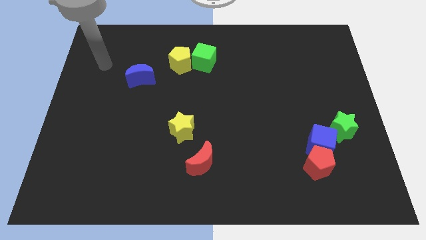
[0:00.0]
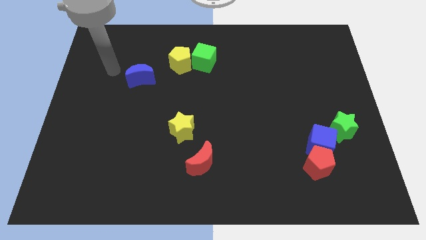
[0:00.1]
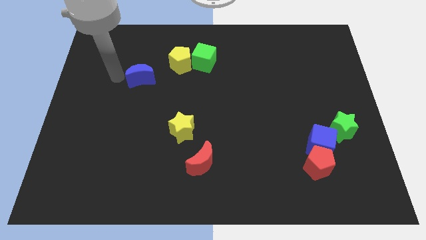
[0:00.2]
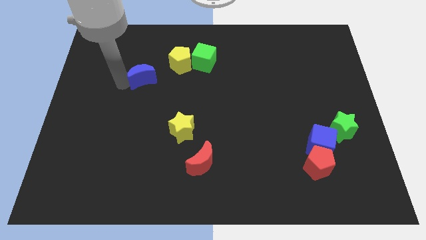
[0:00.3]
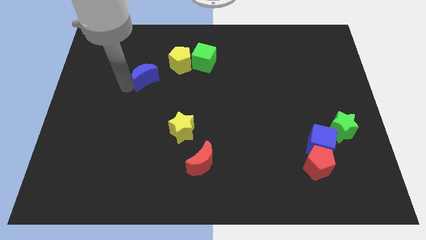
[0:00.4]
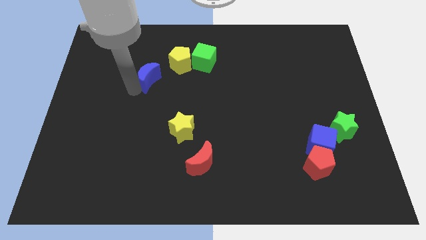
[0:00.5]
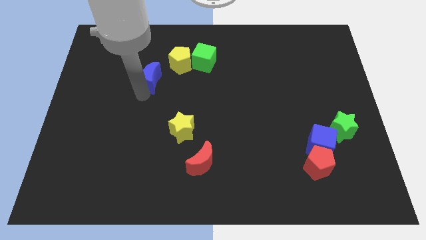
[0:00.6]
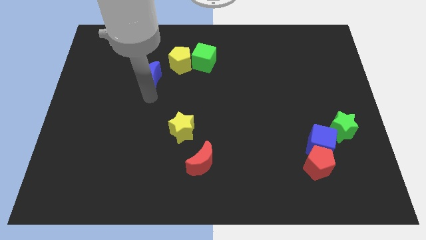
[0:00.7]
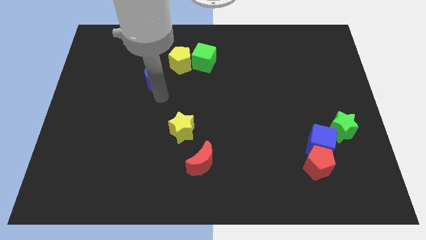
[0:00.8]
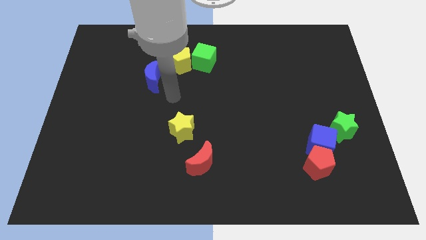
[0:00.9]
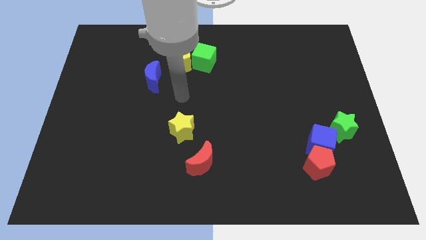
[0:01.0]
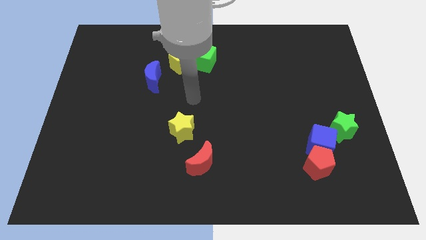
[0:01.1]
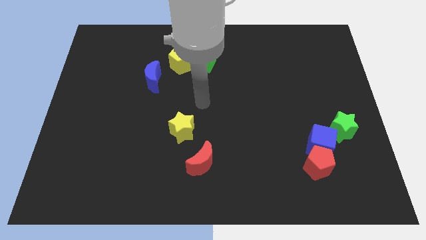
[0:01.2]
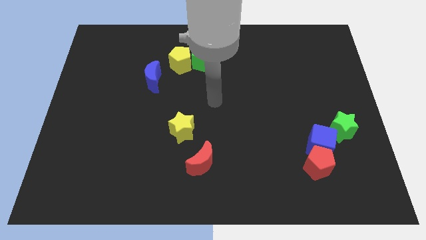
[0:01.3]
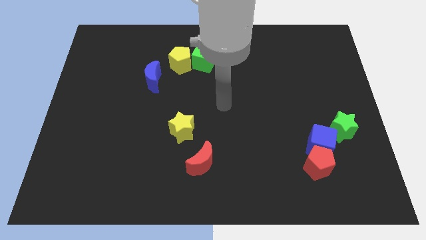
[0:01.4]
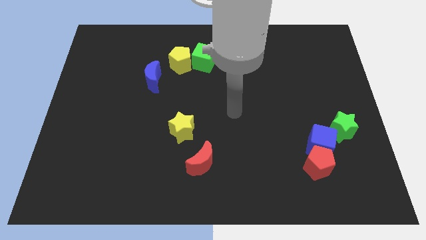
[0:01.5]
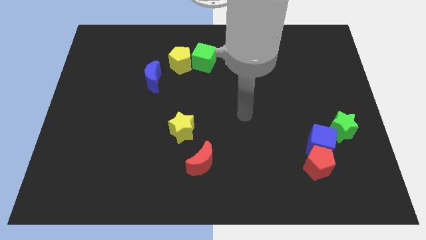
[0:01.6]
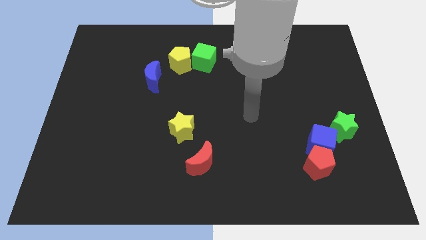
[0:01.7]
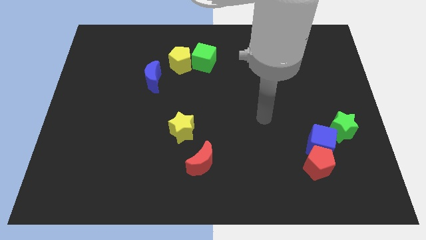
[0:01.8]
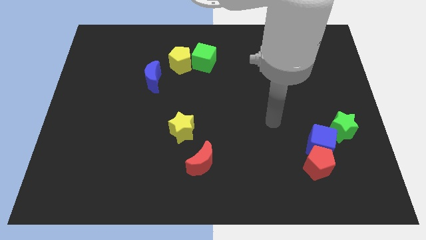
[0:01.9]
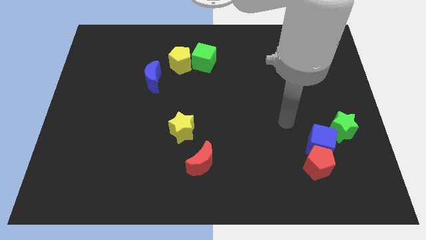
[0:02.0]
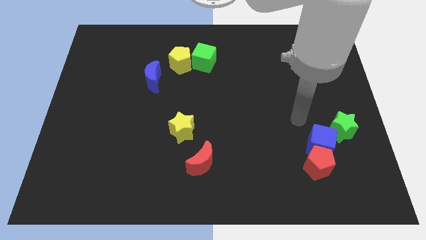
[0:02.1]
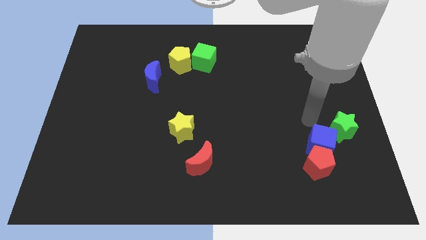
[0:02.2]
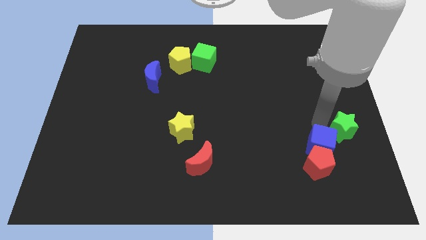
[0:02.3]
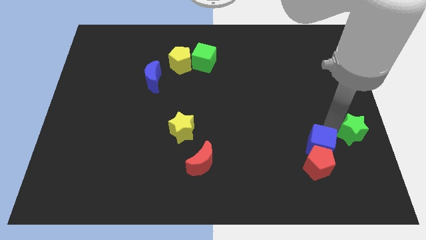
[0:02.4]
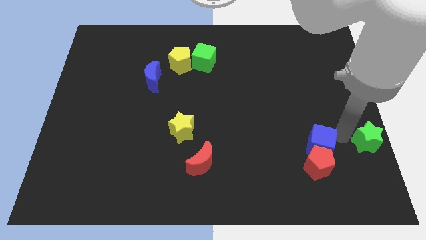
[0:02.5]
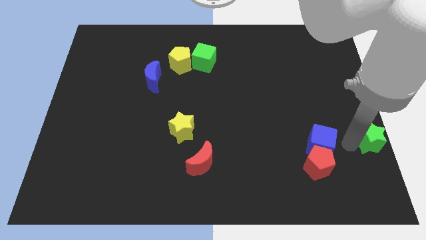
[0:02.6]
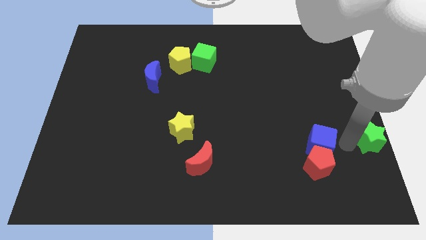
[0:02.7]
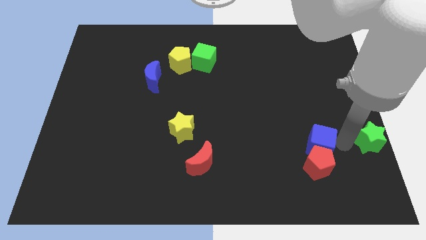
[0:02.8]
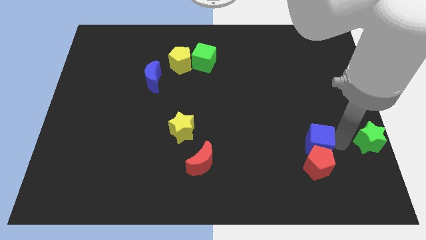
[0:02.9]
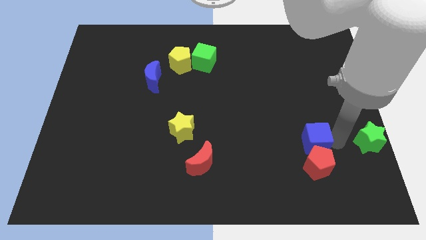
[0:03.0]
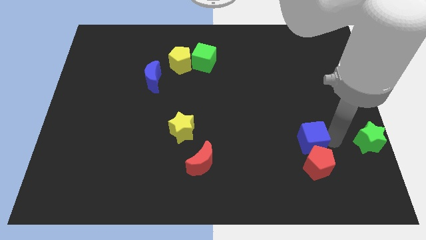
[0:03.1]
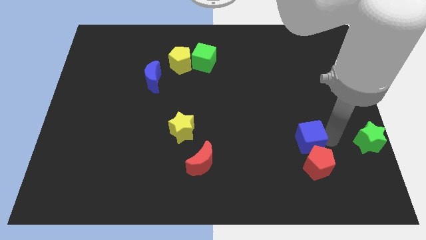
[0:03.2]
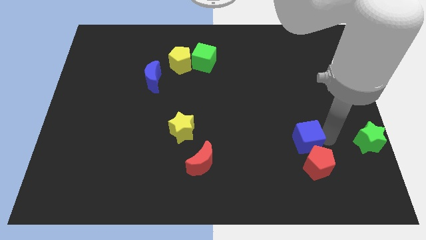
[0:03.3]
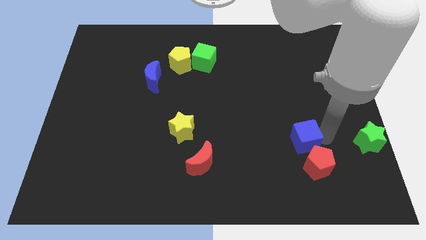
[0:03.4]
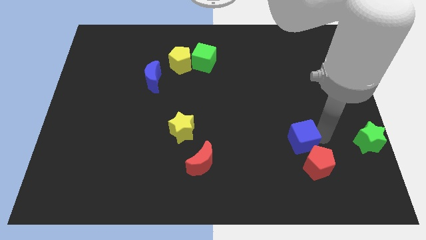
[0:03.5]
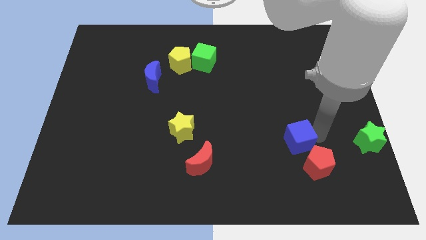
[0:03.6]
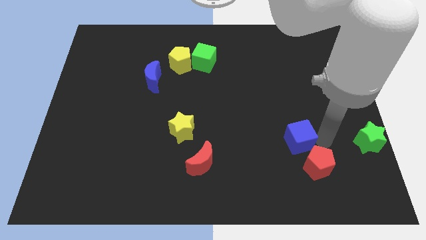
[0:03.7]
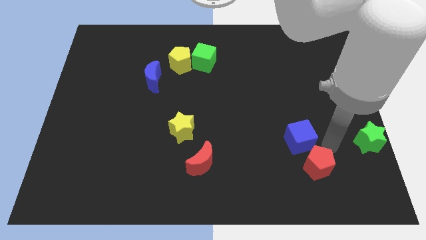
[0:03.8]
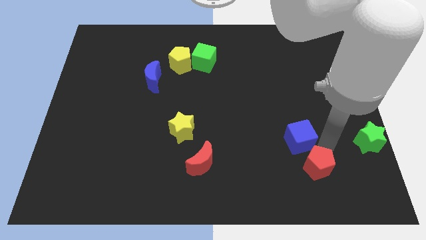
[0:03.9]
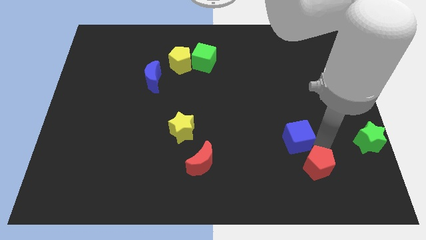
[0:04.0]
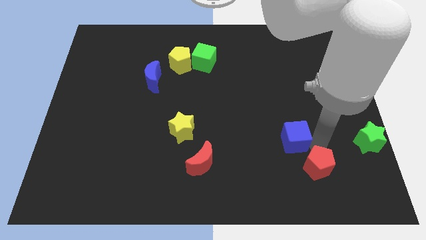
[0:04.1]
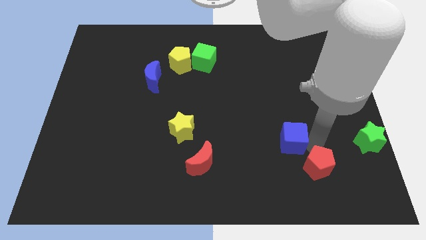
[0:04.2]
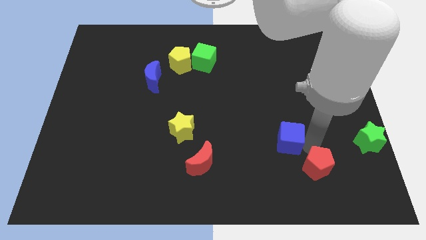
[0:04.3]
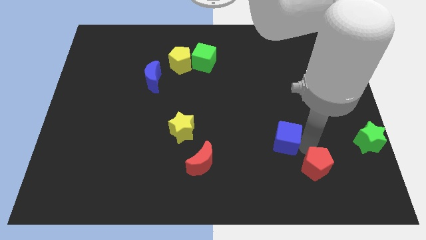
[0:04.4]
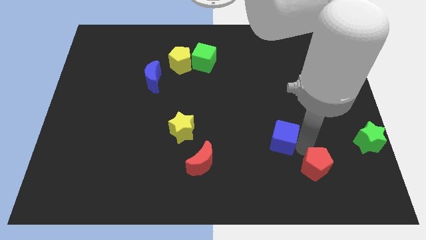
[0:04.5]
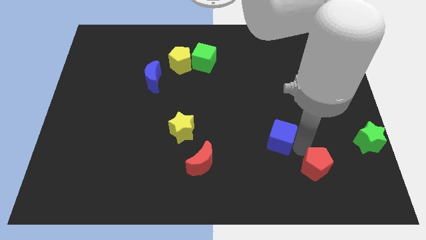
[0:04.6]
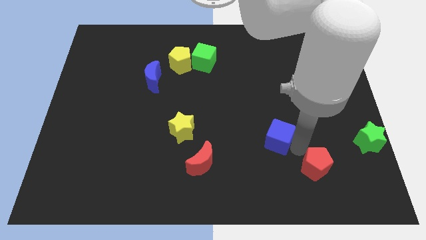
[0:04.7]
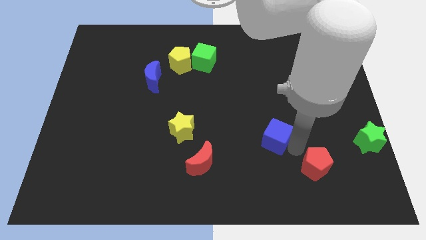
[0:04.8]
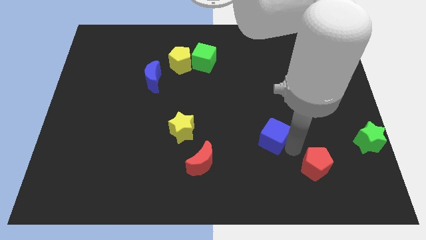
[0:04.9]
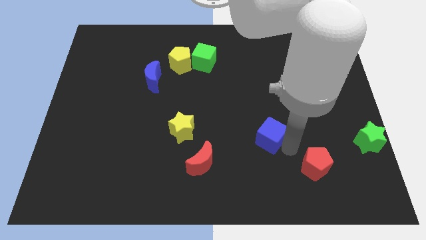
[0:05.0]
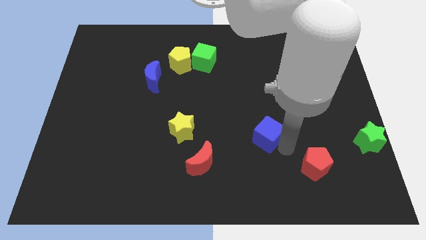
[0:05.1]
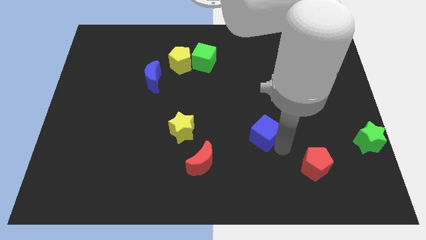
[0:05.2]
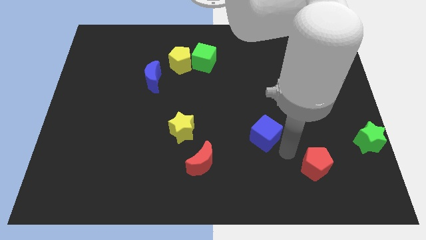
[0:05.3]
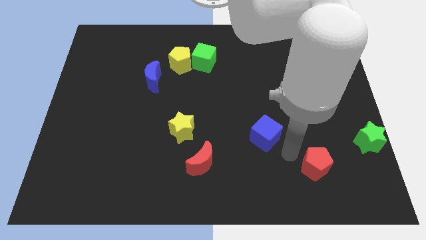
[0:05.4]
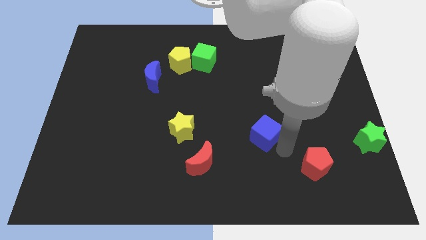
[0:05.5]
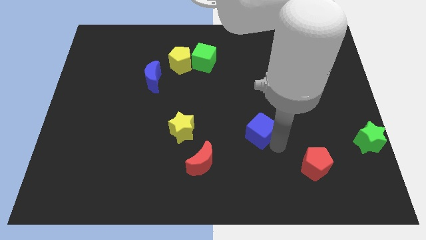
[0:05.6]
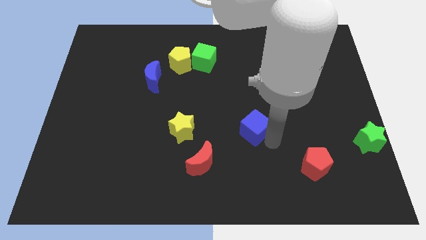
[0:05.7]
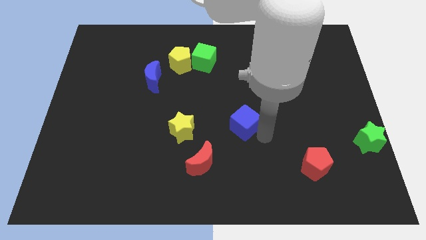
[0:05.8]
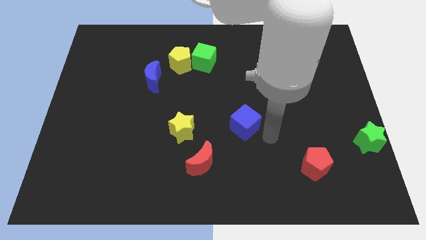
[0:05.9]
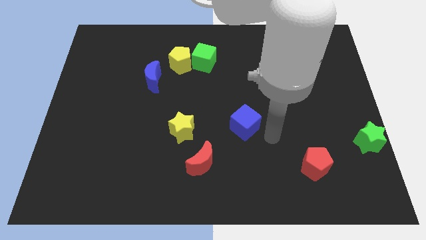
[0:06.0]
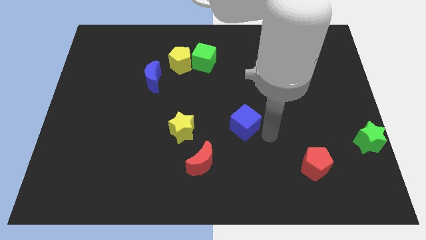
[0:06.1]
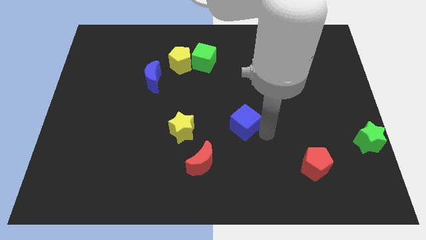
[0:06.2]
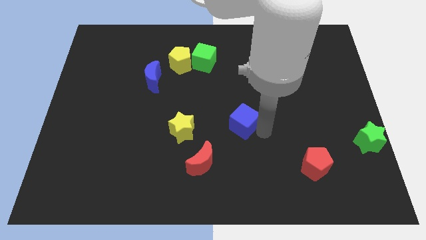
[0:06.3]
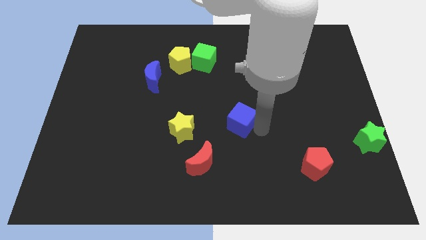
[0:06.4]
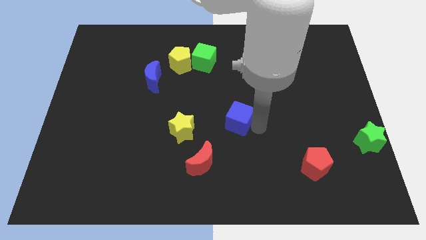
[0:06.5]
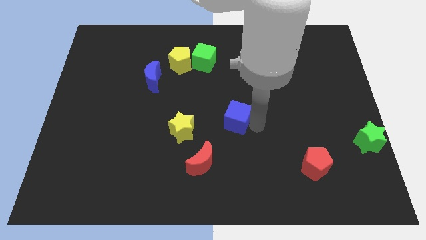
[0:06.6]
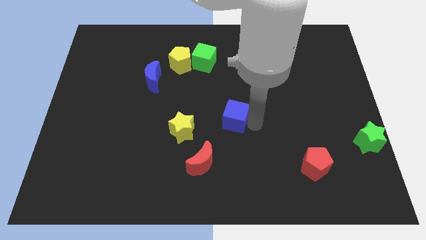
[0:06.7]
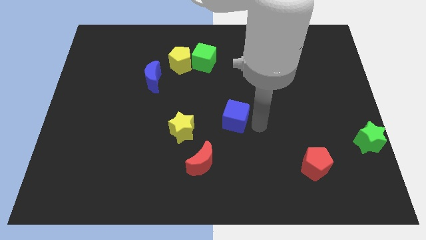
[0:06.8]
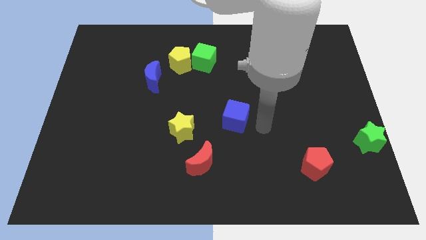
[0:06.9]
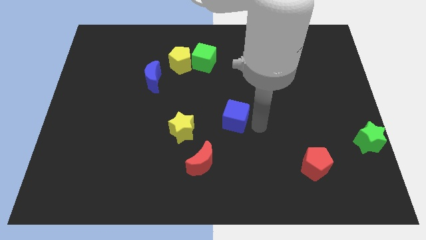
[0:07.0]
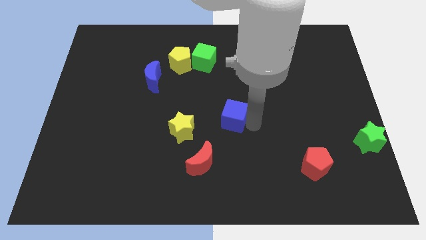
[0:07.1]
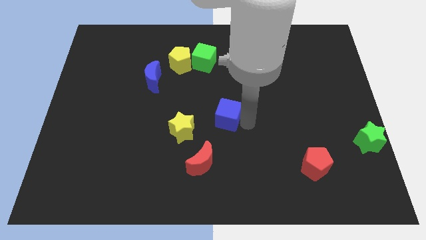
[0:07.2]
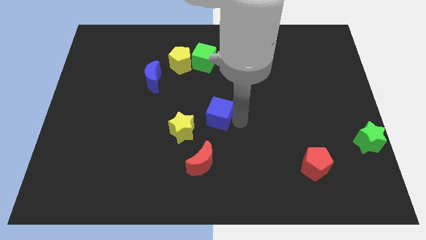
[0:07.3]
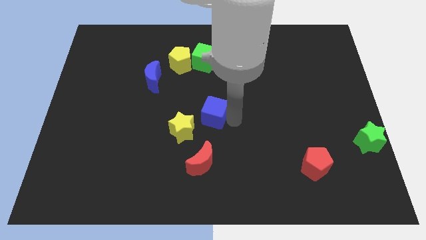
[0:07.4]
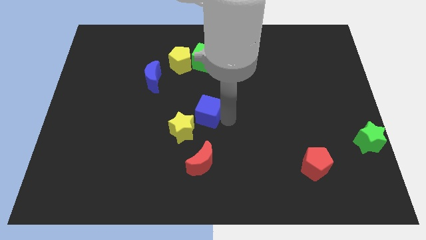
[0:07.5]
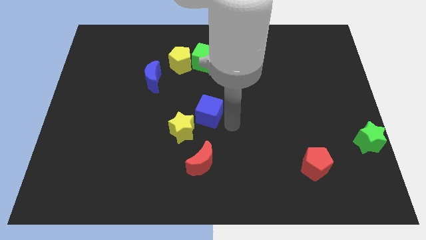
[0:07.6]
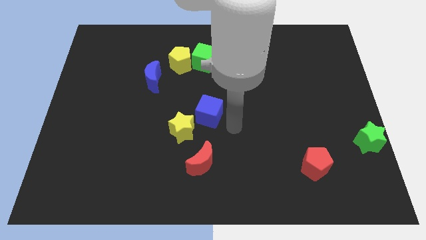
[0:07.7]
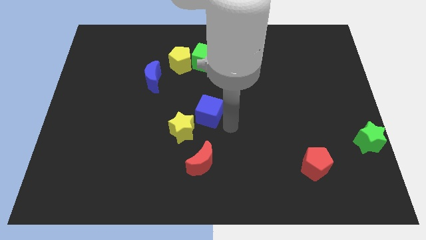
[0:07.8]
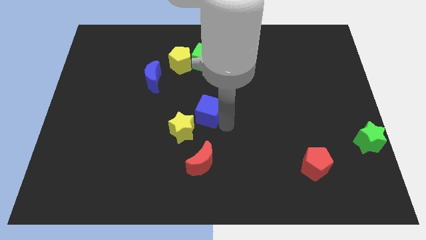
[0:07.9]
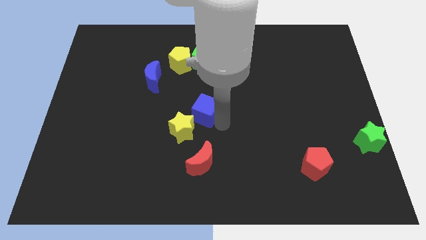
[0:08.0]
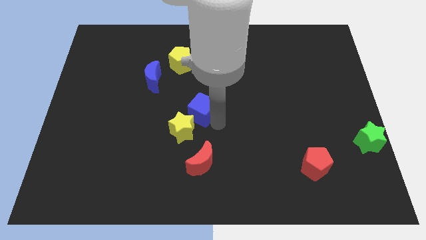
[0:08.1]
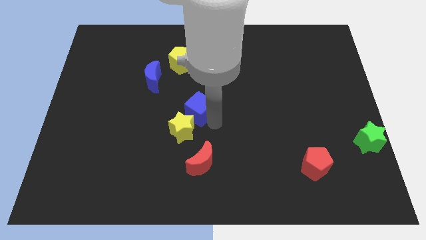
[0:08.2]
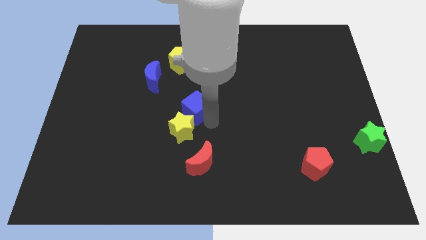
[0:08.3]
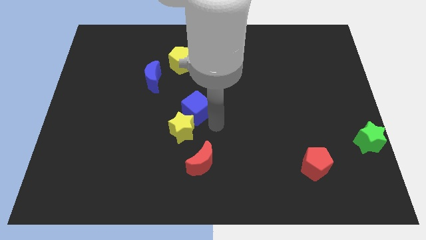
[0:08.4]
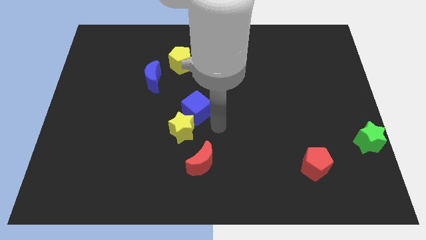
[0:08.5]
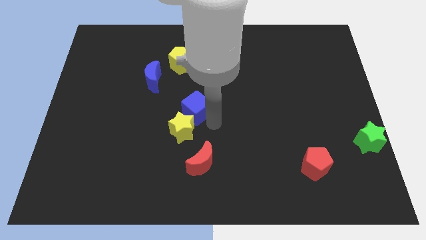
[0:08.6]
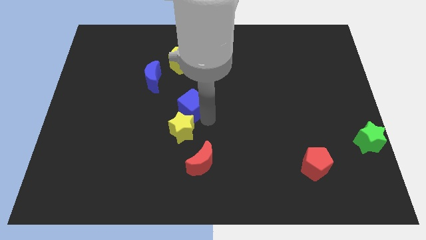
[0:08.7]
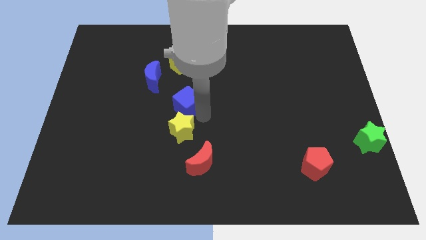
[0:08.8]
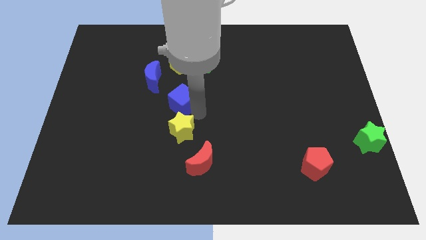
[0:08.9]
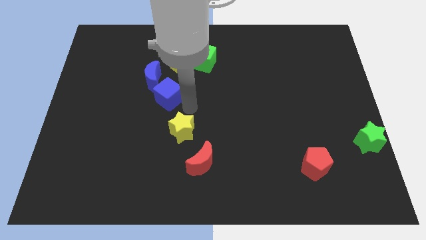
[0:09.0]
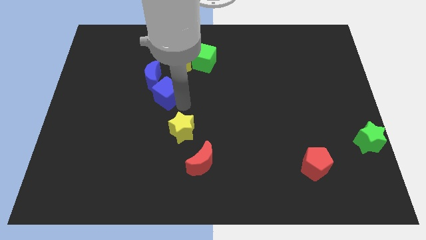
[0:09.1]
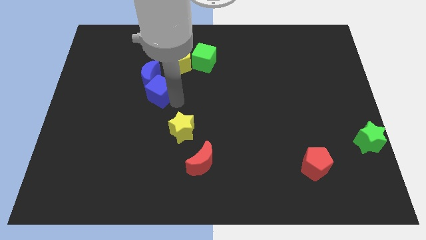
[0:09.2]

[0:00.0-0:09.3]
put the blue cube close to the blue moon
